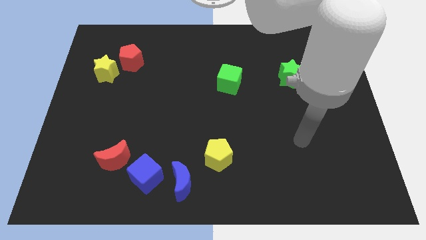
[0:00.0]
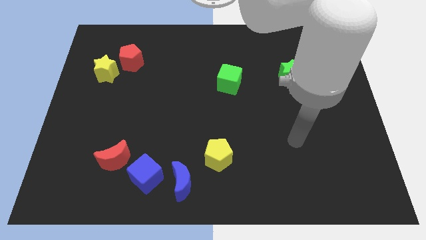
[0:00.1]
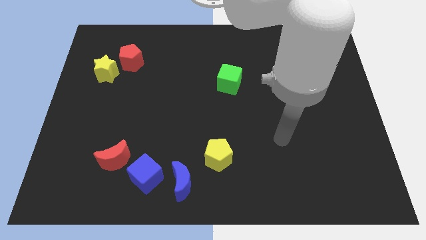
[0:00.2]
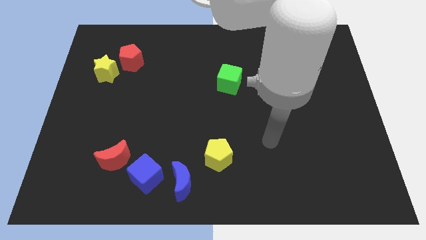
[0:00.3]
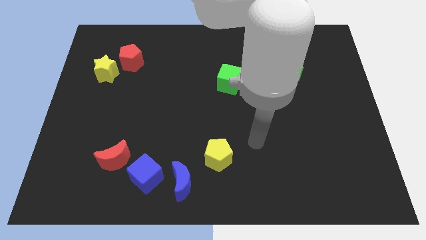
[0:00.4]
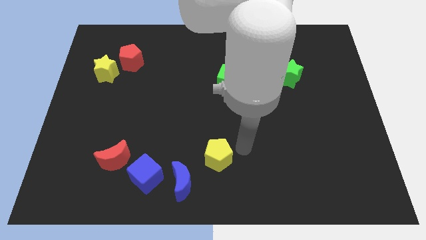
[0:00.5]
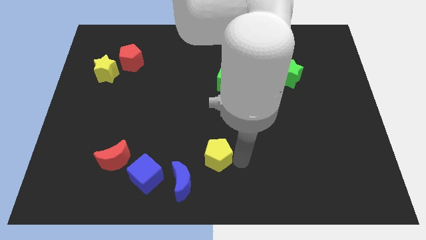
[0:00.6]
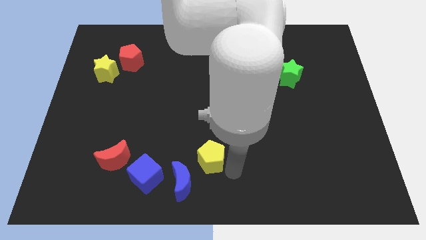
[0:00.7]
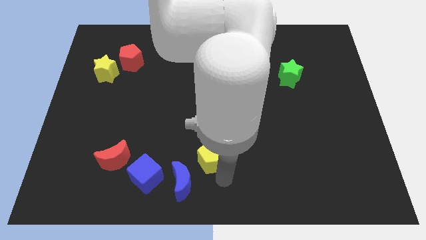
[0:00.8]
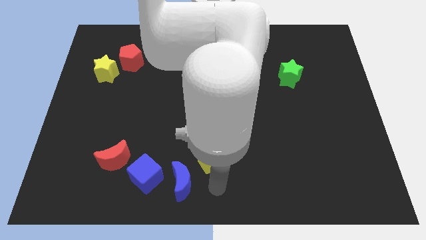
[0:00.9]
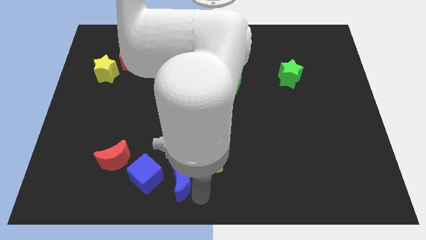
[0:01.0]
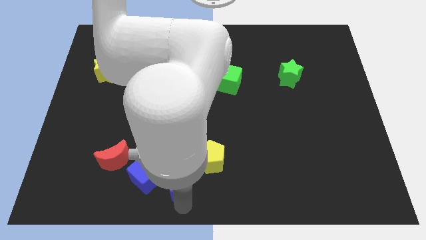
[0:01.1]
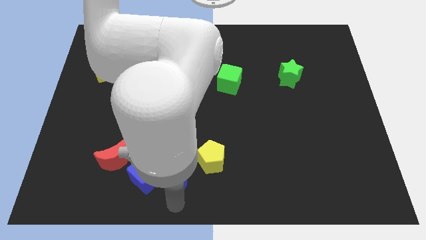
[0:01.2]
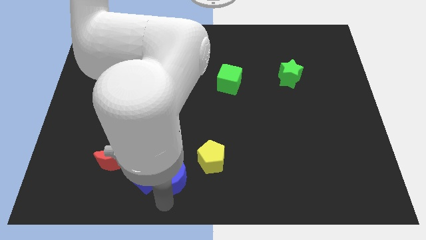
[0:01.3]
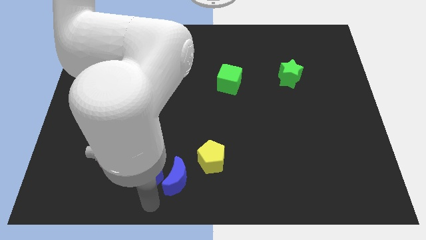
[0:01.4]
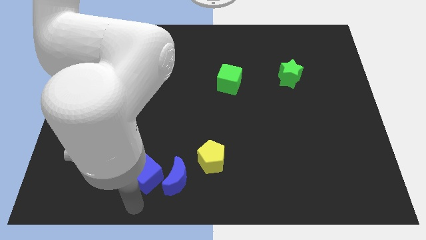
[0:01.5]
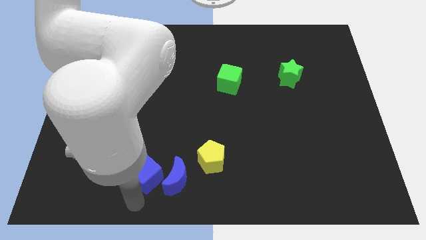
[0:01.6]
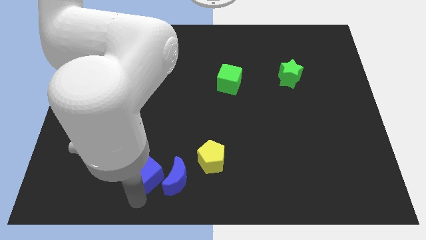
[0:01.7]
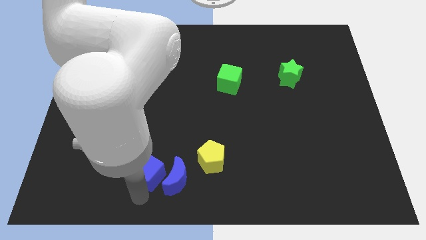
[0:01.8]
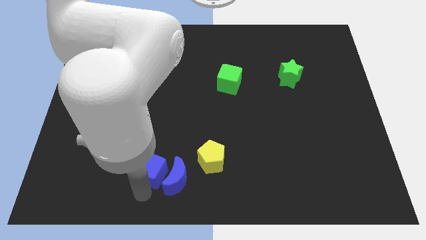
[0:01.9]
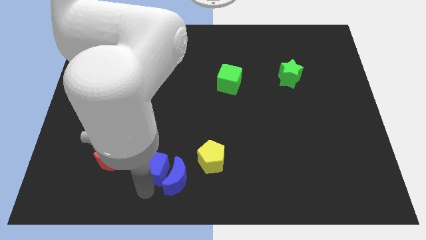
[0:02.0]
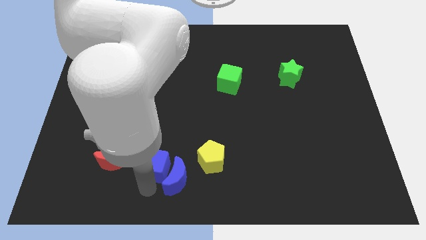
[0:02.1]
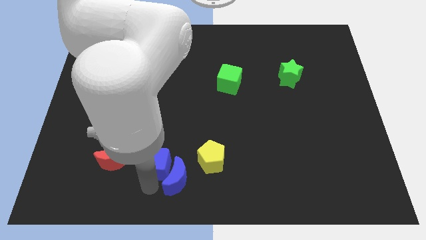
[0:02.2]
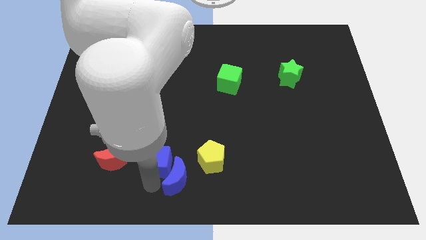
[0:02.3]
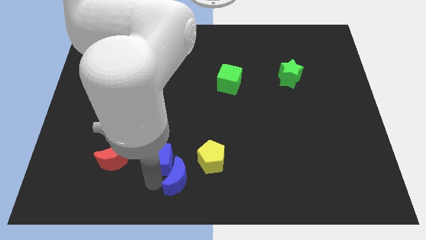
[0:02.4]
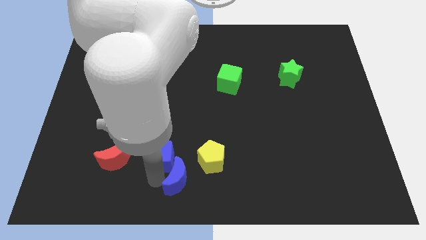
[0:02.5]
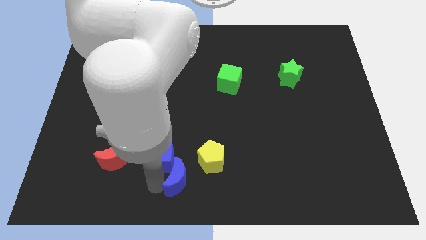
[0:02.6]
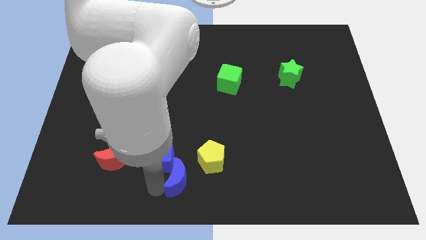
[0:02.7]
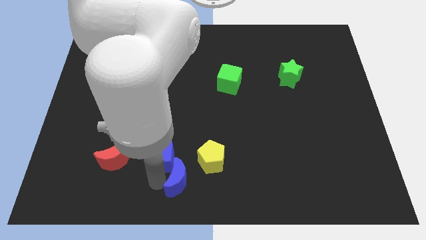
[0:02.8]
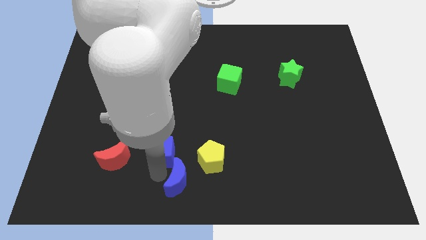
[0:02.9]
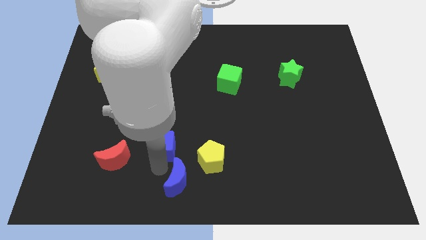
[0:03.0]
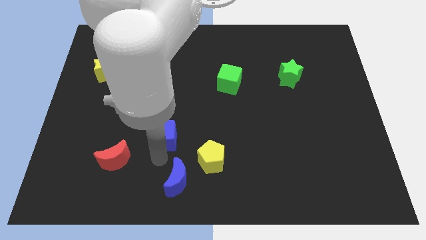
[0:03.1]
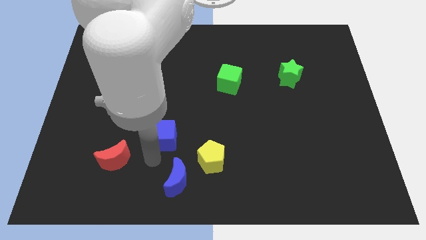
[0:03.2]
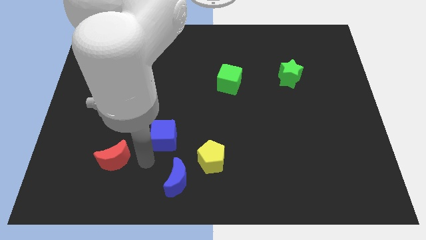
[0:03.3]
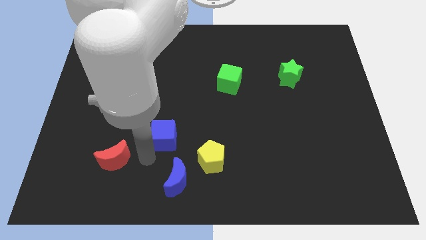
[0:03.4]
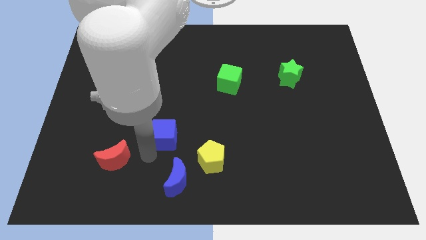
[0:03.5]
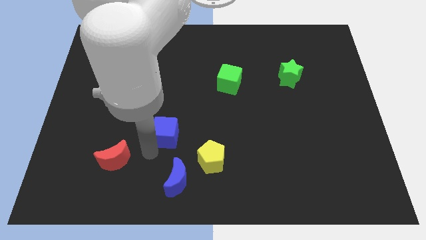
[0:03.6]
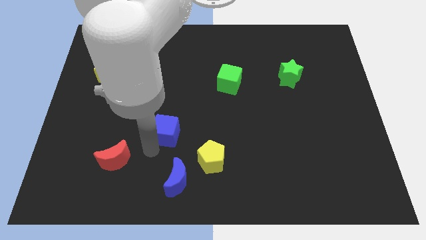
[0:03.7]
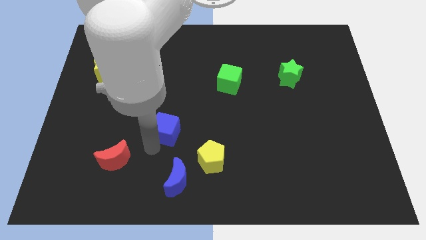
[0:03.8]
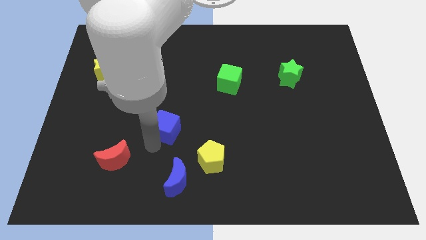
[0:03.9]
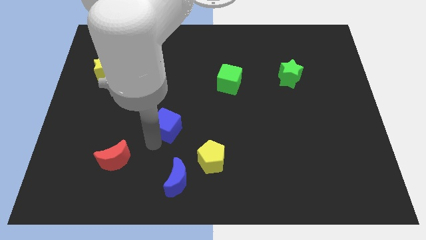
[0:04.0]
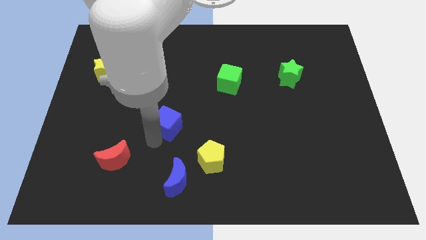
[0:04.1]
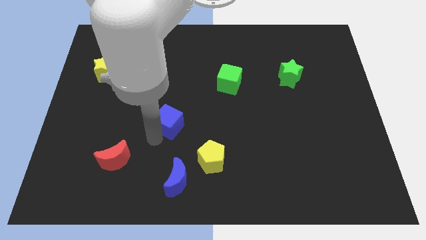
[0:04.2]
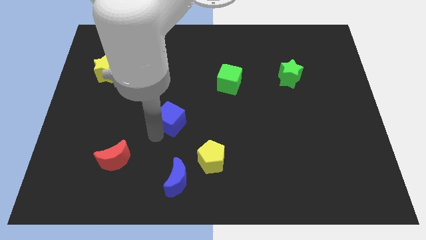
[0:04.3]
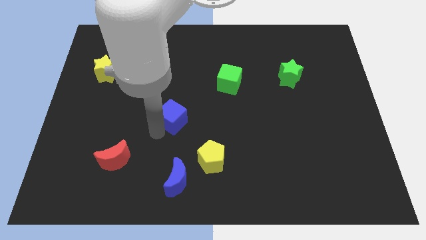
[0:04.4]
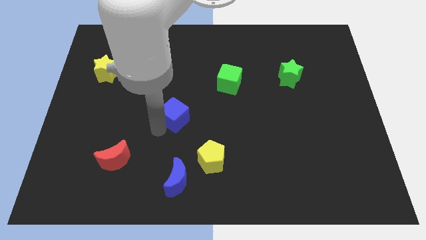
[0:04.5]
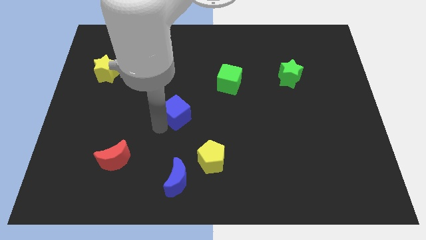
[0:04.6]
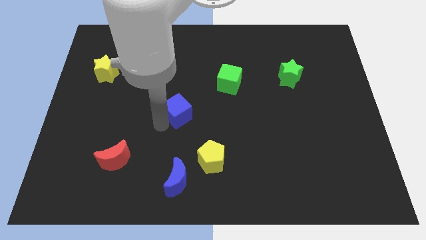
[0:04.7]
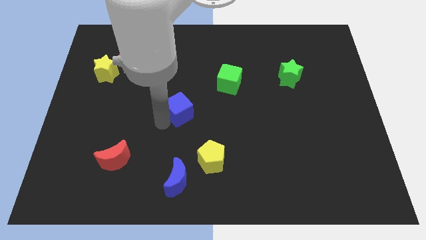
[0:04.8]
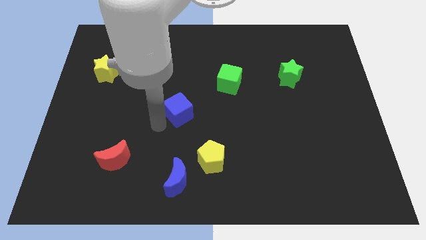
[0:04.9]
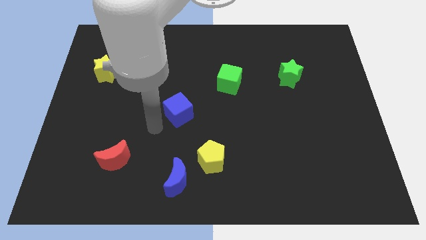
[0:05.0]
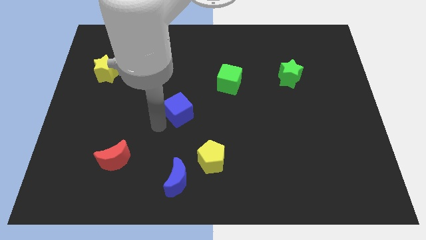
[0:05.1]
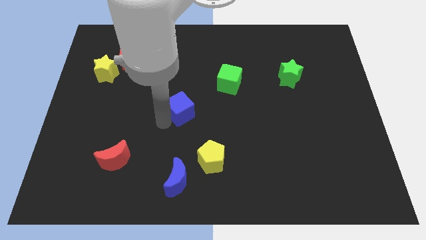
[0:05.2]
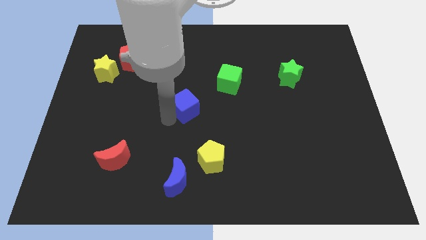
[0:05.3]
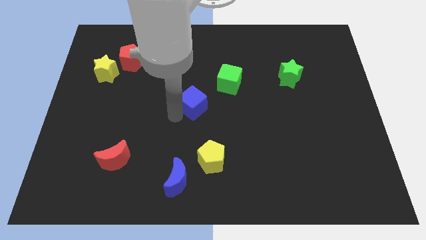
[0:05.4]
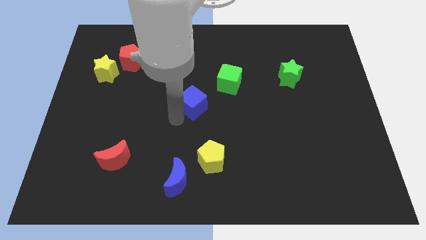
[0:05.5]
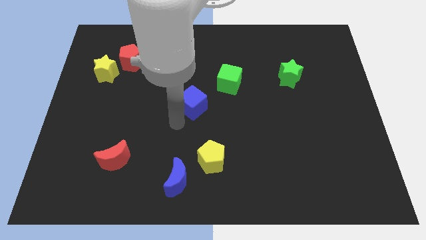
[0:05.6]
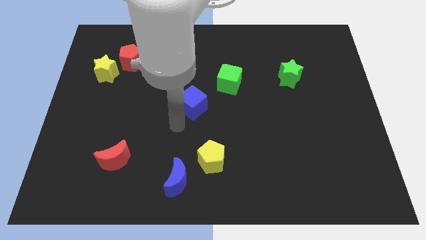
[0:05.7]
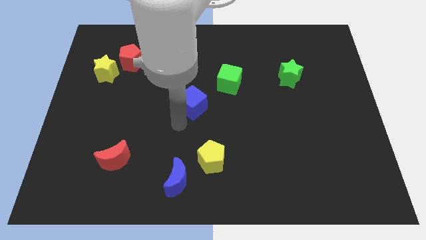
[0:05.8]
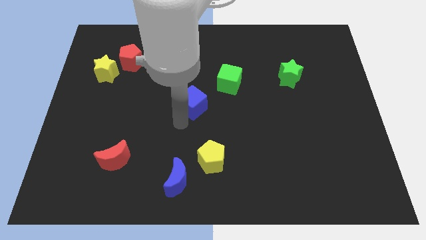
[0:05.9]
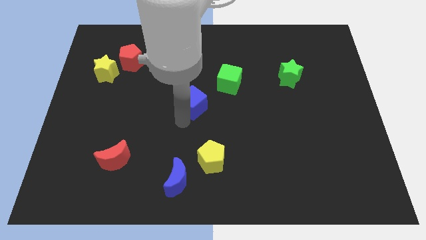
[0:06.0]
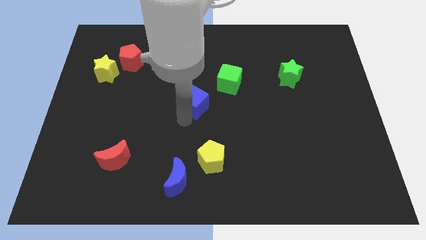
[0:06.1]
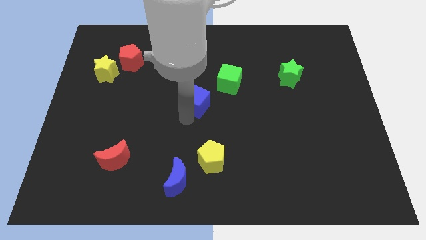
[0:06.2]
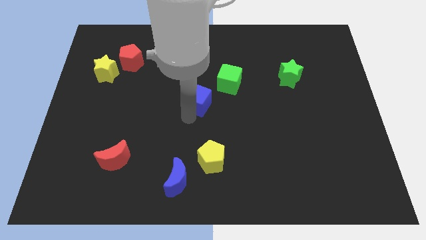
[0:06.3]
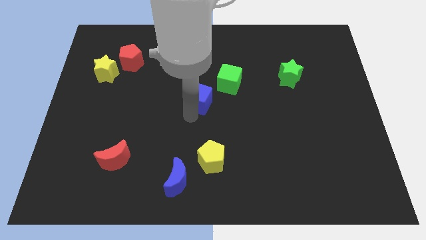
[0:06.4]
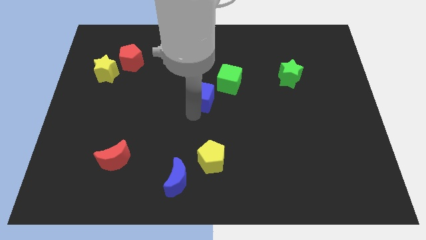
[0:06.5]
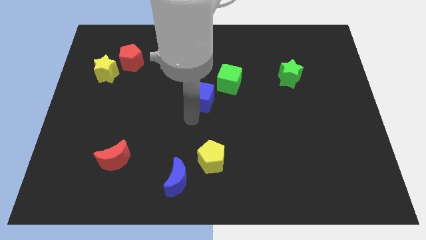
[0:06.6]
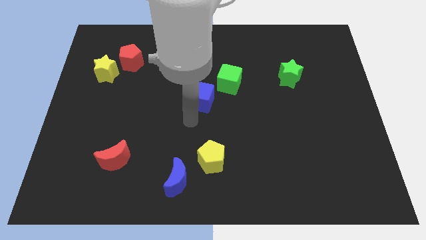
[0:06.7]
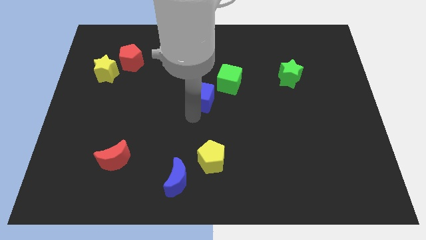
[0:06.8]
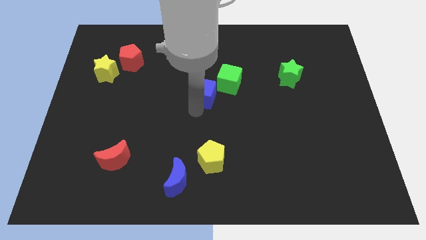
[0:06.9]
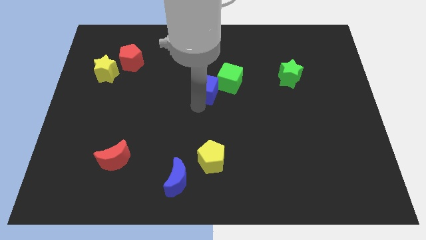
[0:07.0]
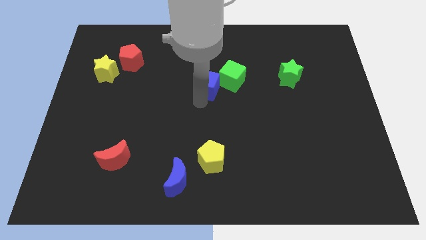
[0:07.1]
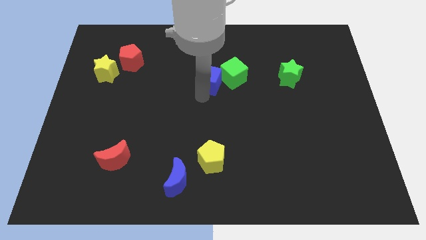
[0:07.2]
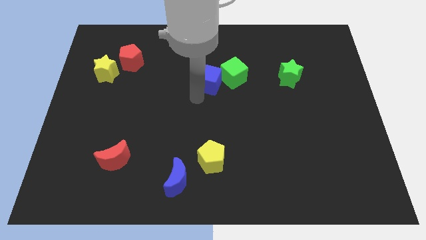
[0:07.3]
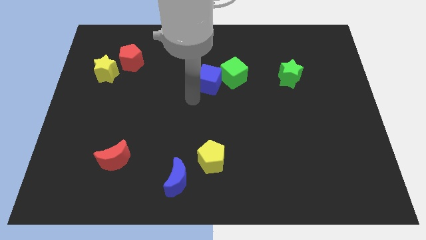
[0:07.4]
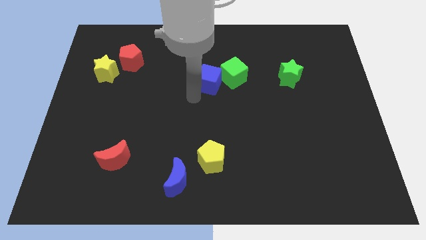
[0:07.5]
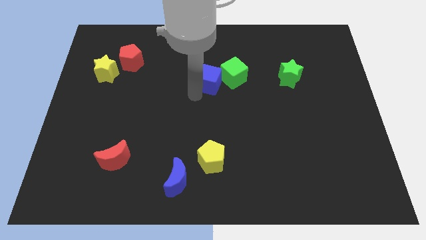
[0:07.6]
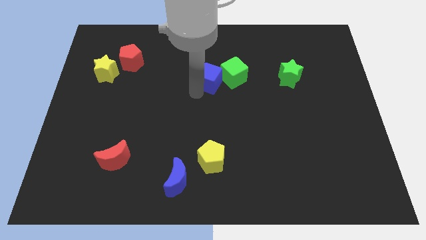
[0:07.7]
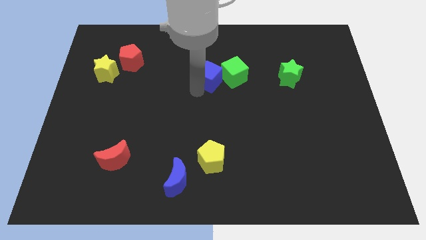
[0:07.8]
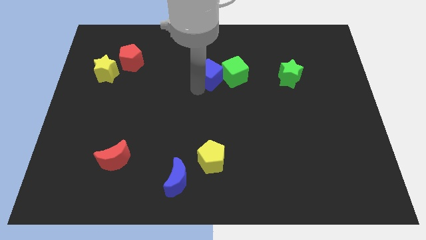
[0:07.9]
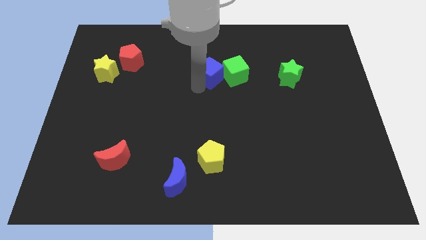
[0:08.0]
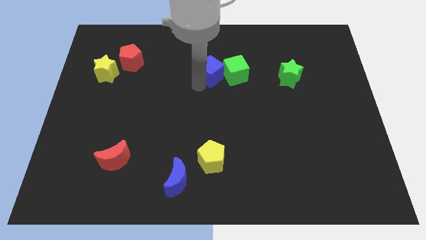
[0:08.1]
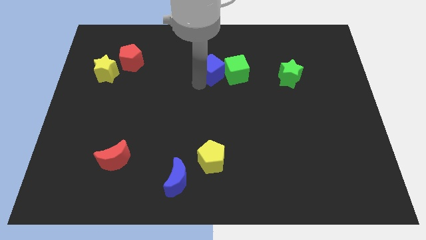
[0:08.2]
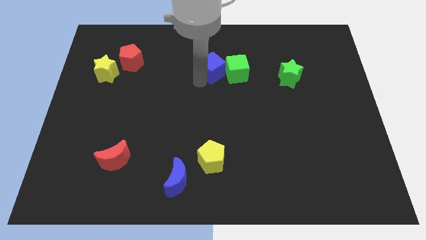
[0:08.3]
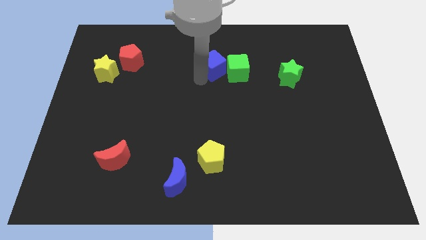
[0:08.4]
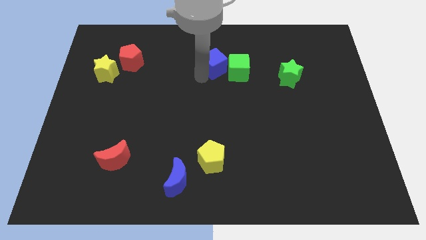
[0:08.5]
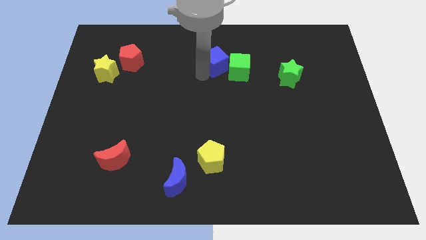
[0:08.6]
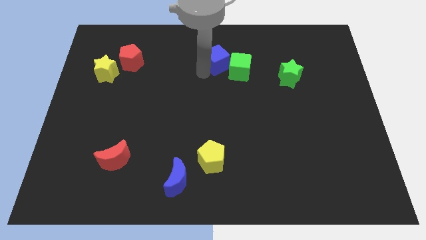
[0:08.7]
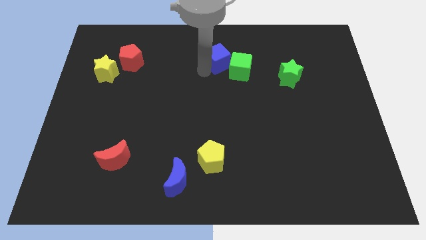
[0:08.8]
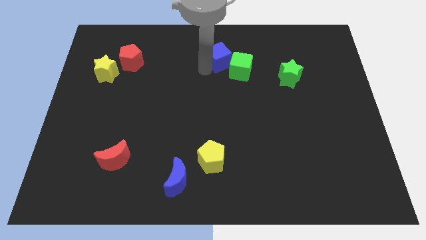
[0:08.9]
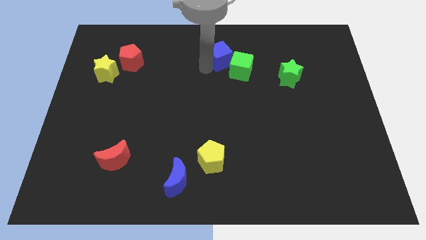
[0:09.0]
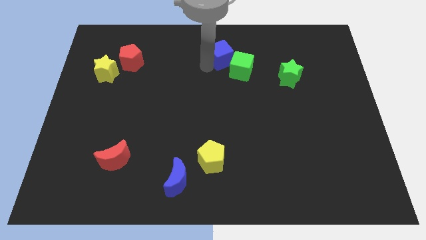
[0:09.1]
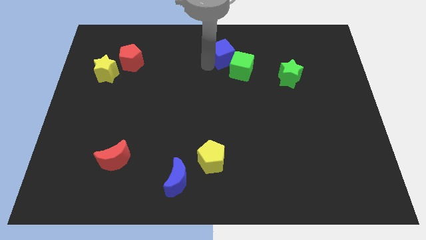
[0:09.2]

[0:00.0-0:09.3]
put the blue cube to the top
